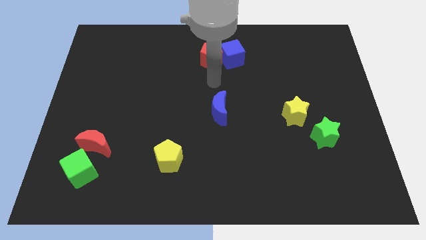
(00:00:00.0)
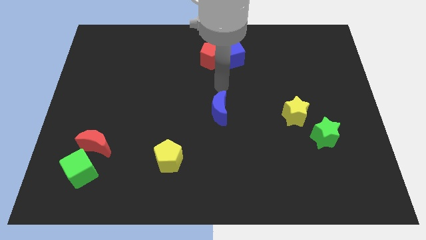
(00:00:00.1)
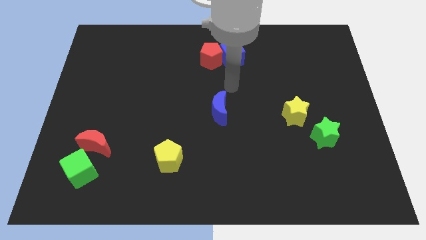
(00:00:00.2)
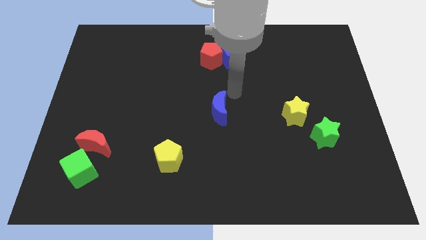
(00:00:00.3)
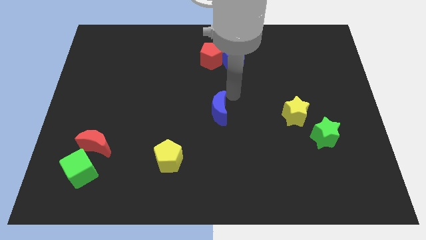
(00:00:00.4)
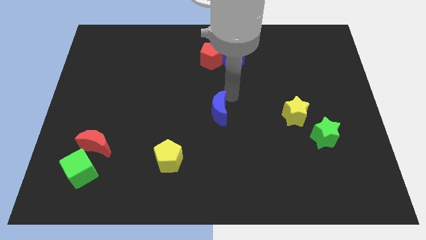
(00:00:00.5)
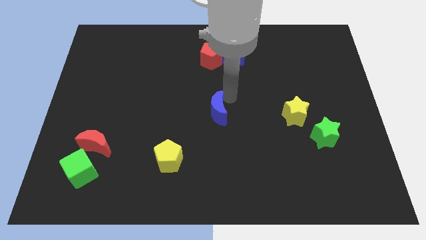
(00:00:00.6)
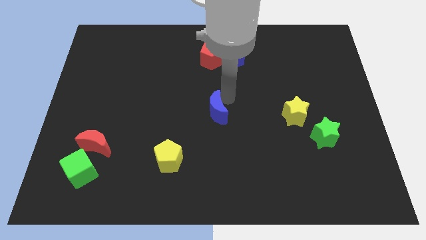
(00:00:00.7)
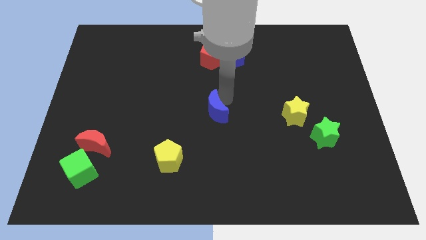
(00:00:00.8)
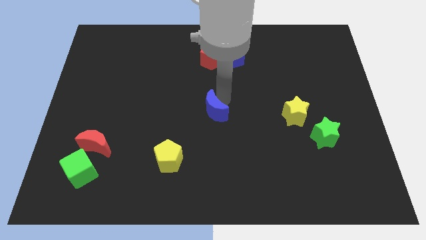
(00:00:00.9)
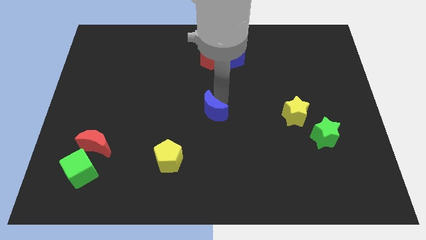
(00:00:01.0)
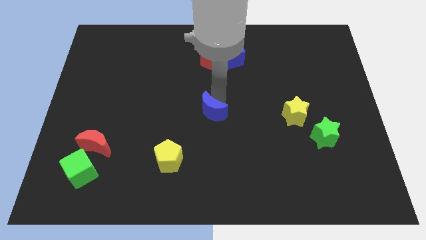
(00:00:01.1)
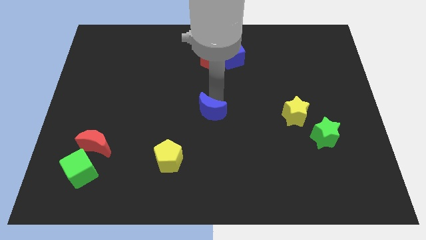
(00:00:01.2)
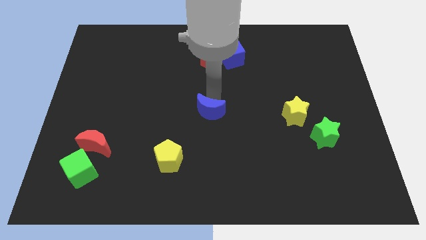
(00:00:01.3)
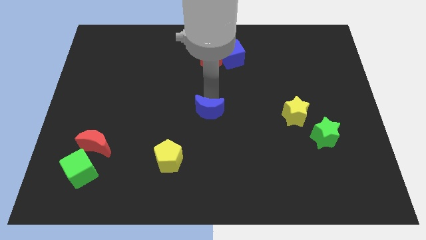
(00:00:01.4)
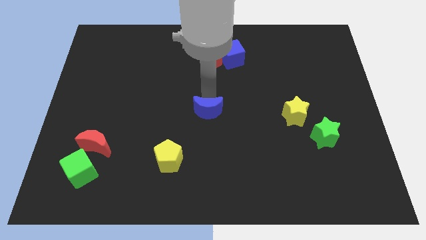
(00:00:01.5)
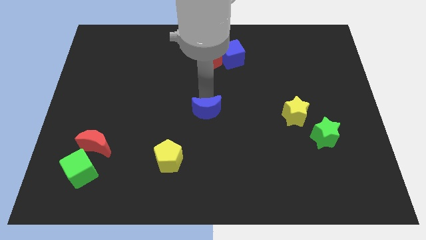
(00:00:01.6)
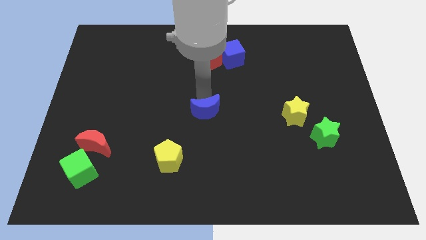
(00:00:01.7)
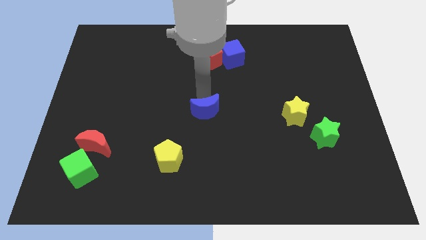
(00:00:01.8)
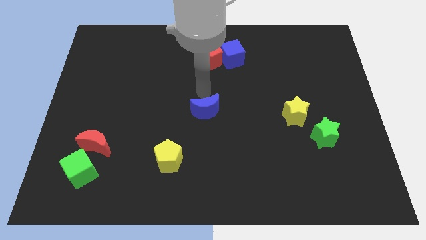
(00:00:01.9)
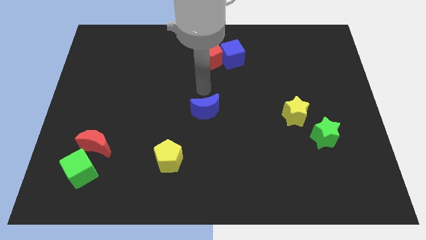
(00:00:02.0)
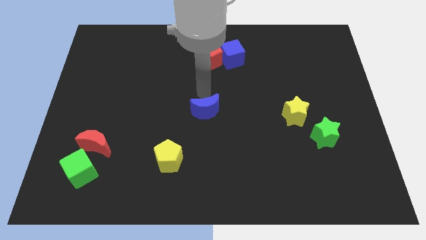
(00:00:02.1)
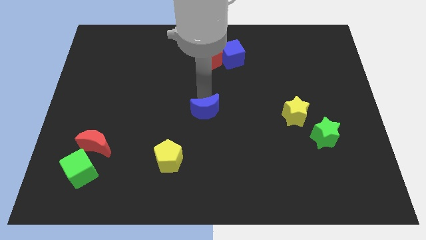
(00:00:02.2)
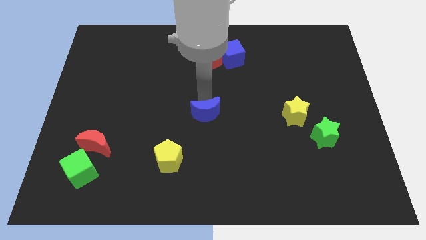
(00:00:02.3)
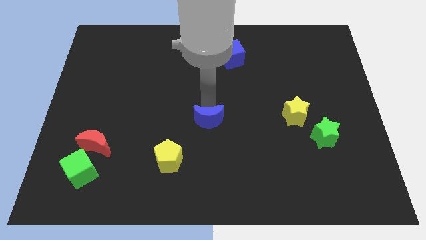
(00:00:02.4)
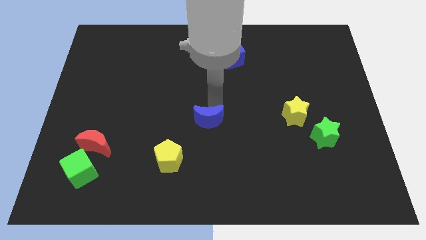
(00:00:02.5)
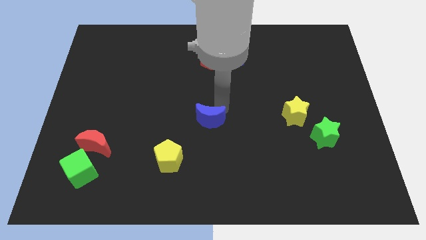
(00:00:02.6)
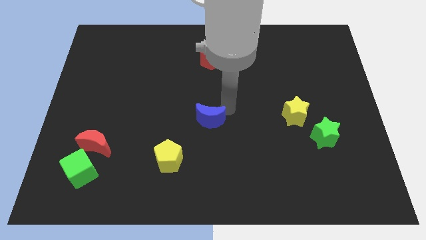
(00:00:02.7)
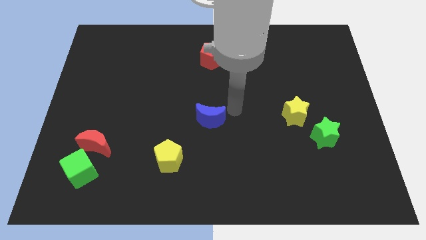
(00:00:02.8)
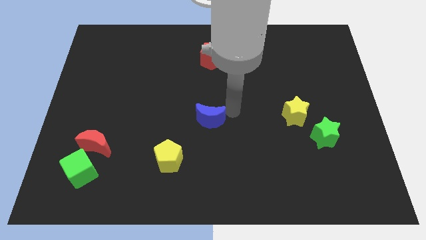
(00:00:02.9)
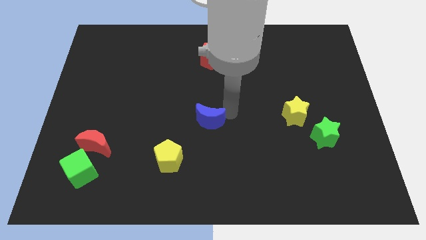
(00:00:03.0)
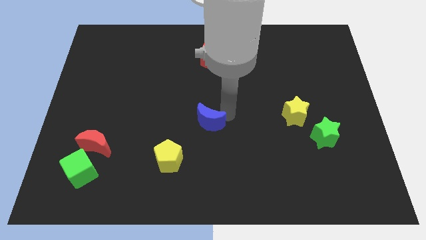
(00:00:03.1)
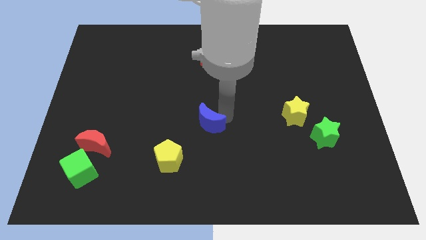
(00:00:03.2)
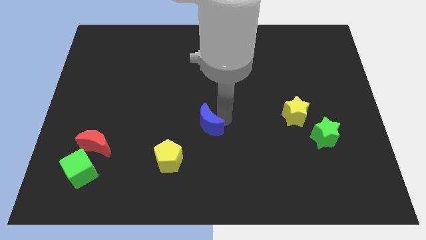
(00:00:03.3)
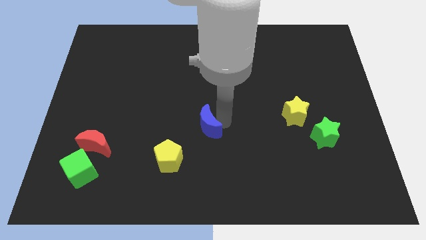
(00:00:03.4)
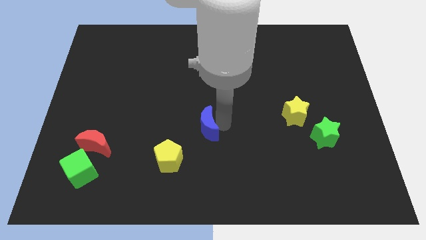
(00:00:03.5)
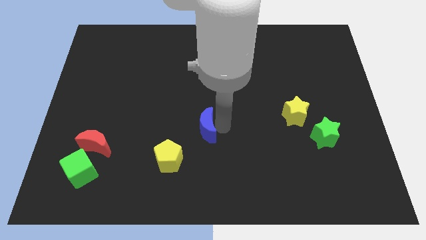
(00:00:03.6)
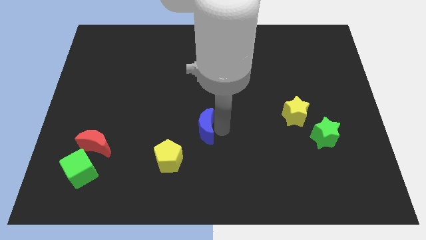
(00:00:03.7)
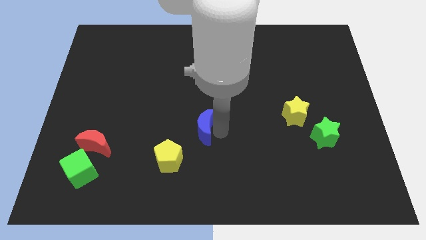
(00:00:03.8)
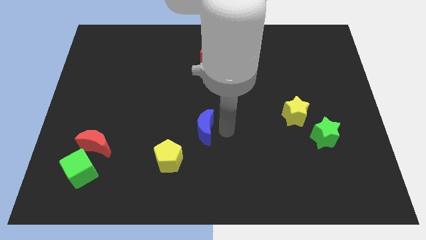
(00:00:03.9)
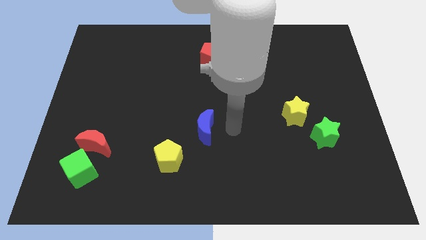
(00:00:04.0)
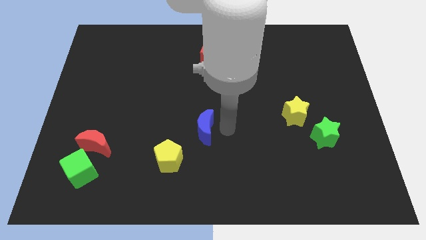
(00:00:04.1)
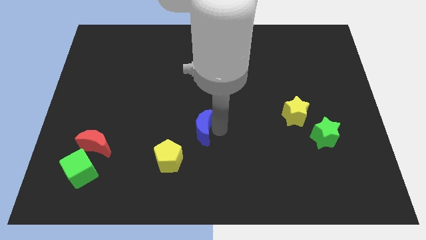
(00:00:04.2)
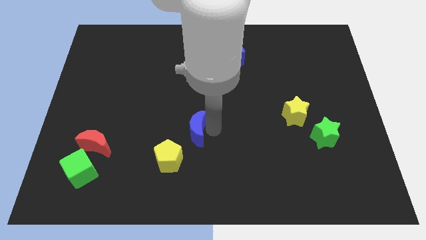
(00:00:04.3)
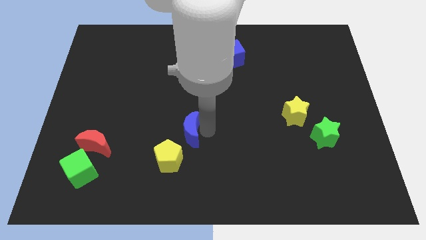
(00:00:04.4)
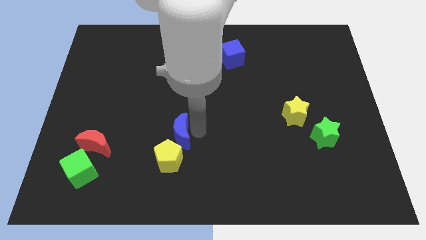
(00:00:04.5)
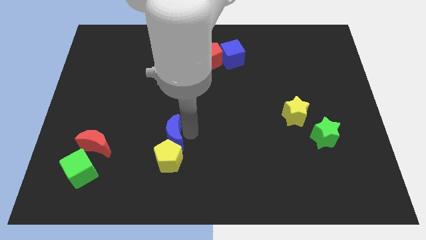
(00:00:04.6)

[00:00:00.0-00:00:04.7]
put the blue moon diagonally up and to the left of the yellow pentagon

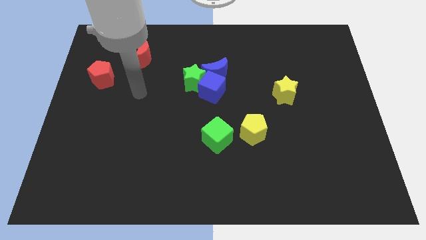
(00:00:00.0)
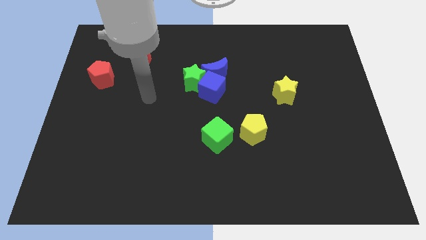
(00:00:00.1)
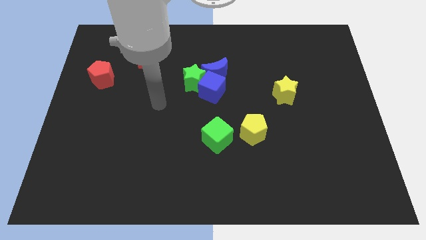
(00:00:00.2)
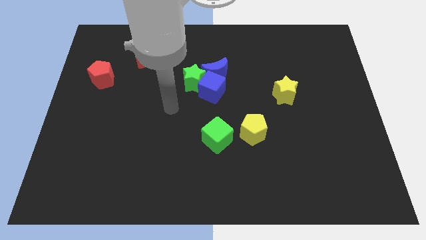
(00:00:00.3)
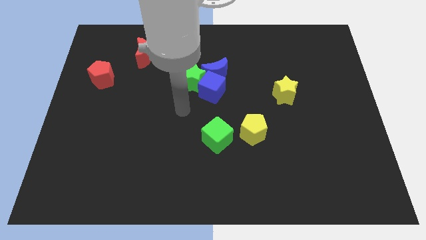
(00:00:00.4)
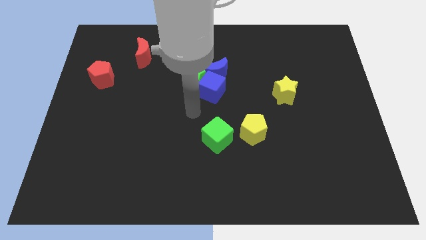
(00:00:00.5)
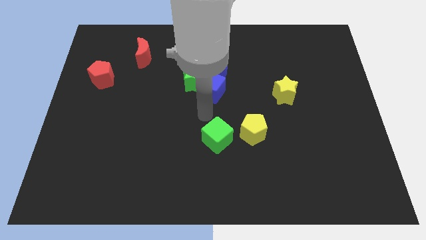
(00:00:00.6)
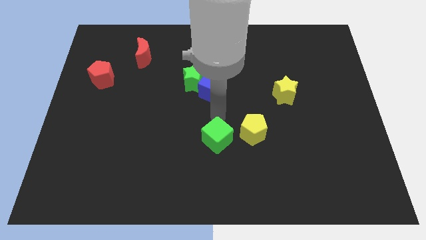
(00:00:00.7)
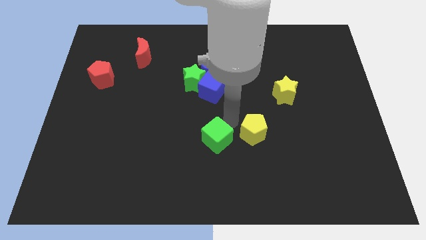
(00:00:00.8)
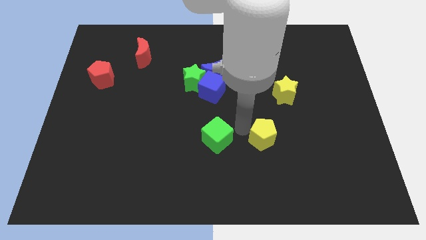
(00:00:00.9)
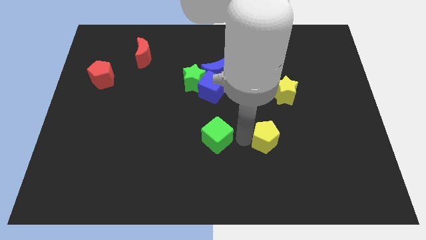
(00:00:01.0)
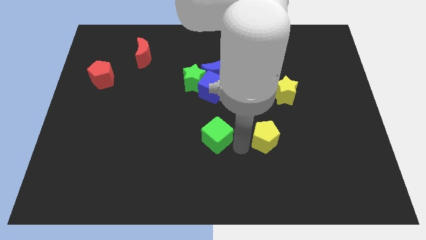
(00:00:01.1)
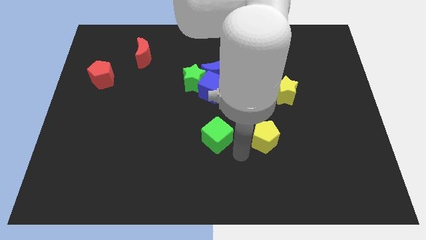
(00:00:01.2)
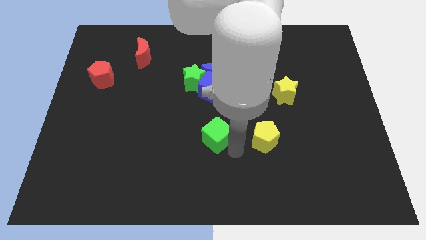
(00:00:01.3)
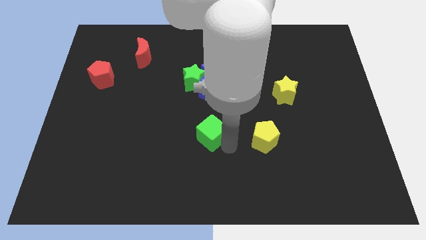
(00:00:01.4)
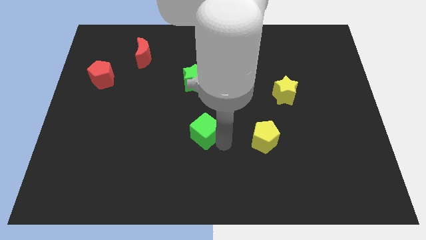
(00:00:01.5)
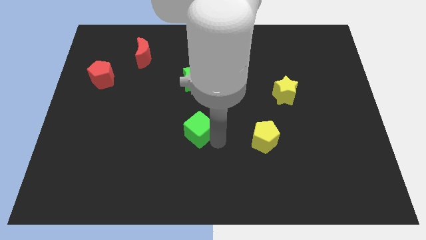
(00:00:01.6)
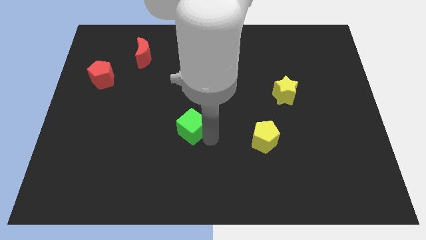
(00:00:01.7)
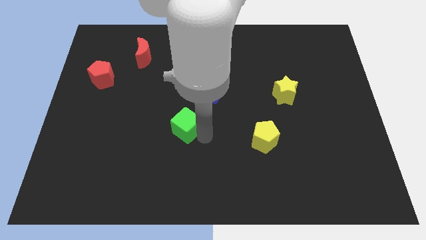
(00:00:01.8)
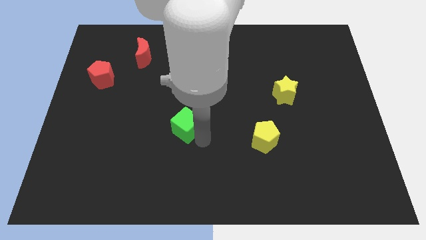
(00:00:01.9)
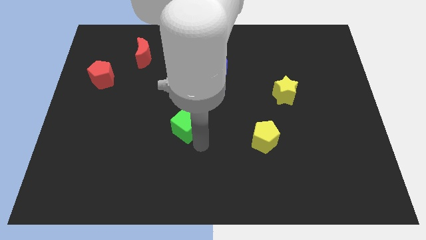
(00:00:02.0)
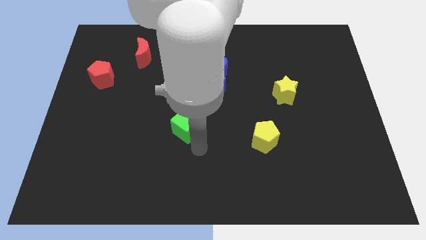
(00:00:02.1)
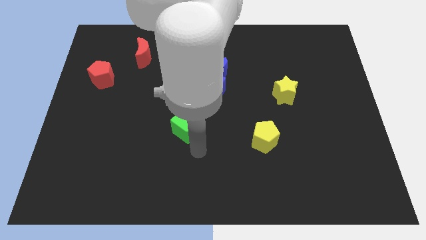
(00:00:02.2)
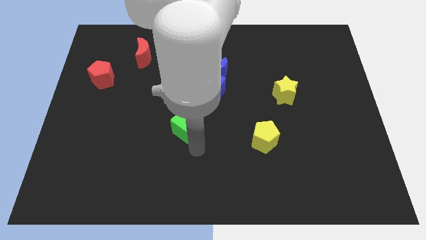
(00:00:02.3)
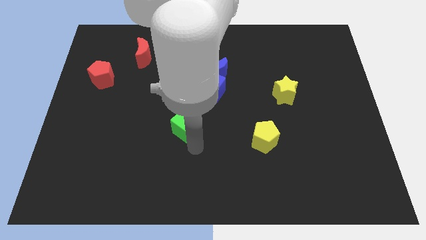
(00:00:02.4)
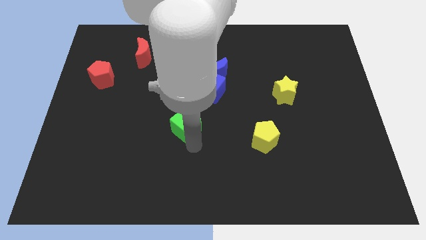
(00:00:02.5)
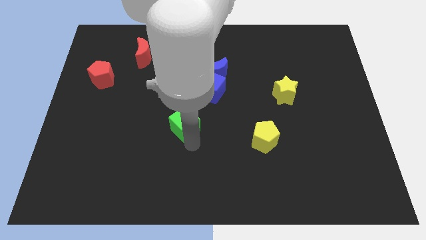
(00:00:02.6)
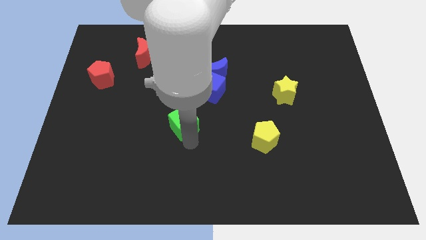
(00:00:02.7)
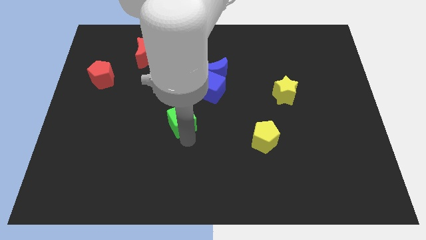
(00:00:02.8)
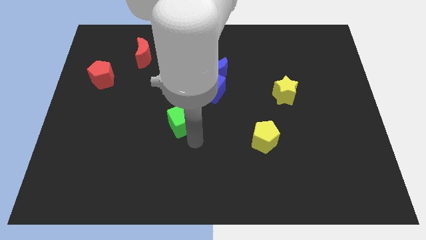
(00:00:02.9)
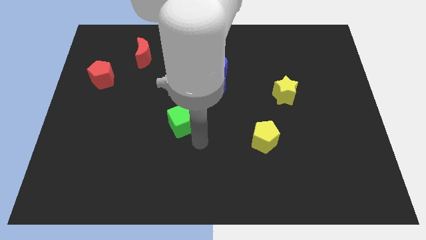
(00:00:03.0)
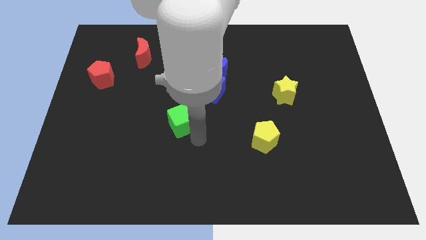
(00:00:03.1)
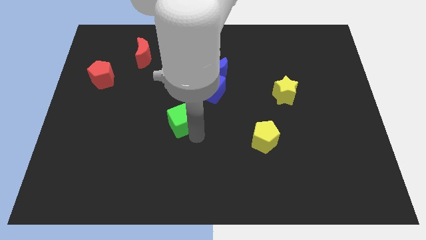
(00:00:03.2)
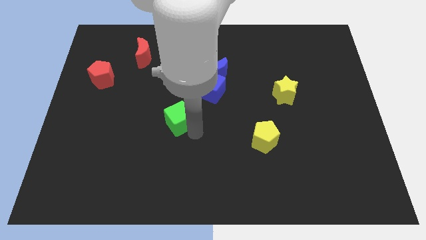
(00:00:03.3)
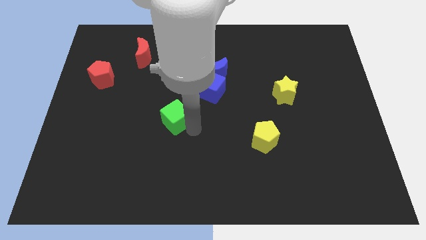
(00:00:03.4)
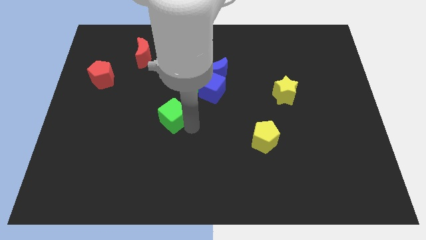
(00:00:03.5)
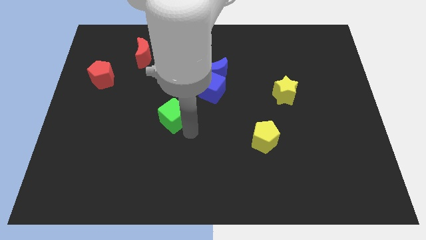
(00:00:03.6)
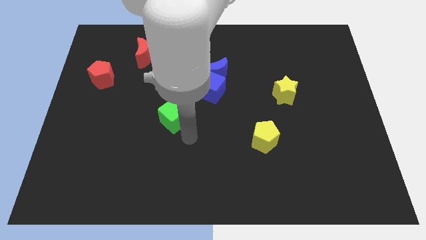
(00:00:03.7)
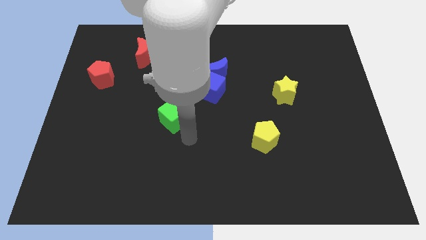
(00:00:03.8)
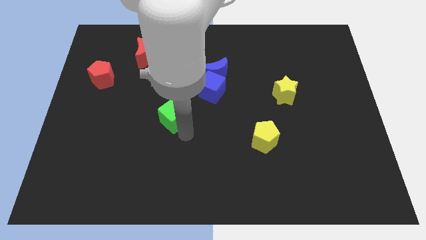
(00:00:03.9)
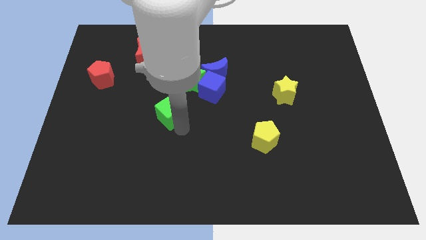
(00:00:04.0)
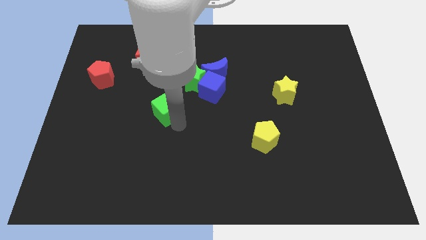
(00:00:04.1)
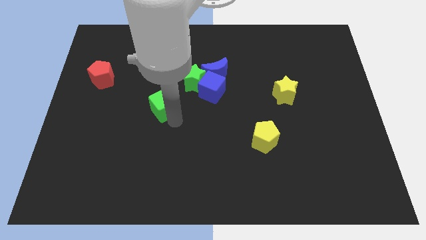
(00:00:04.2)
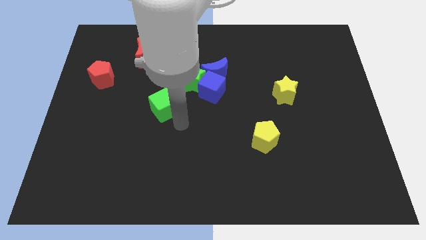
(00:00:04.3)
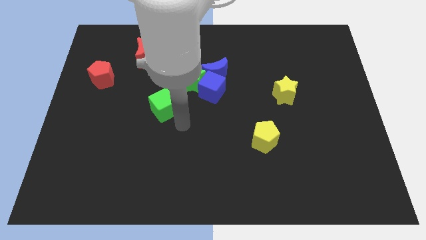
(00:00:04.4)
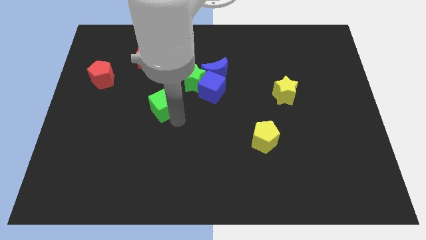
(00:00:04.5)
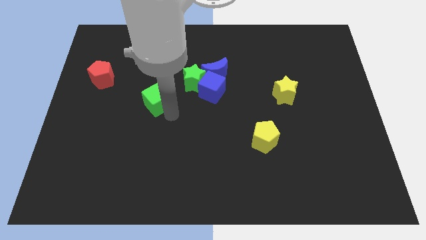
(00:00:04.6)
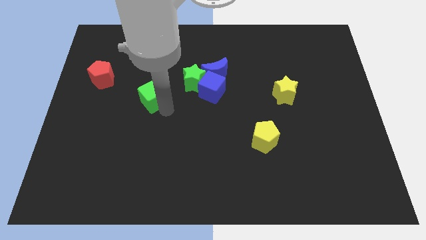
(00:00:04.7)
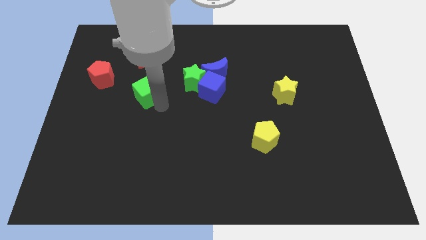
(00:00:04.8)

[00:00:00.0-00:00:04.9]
push the green cube to the bottom side of the red moon
